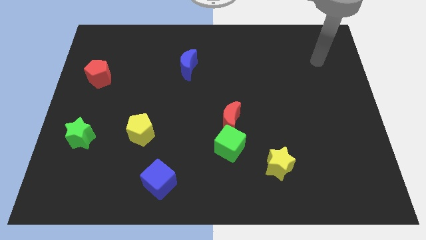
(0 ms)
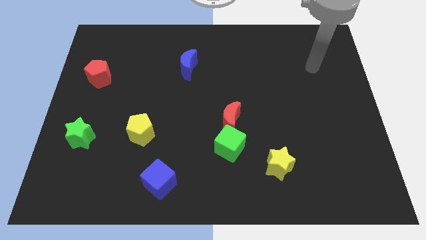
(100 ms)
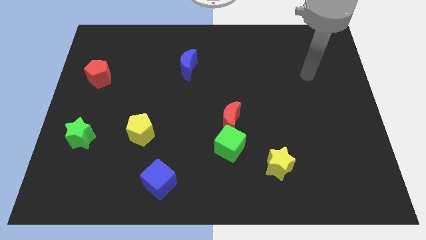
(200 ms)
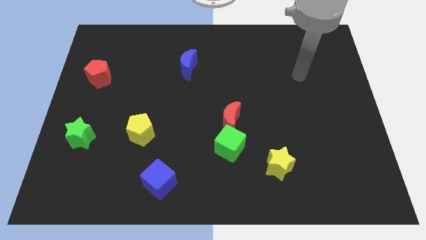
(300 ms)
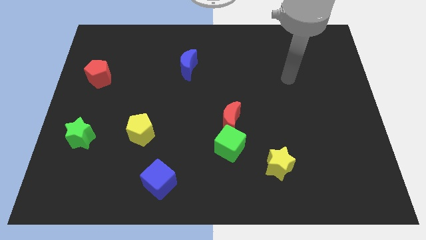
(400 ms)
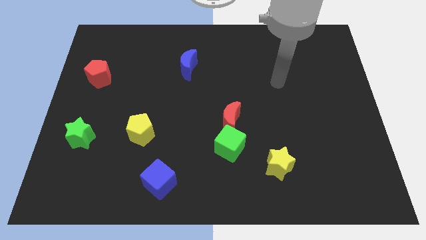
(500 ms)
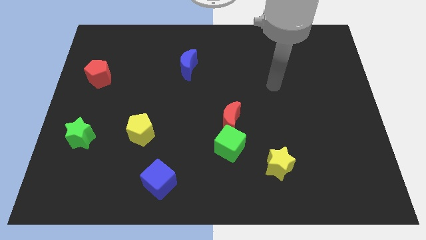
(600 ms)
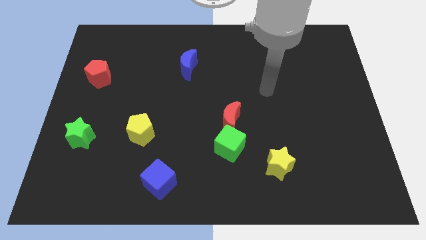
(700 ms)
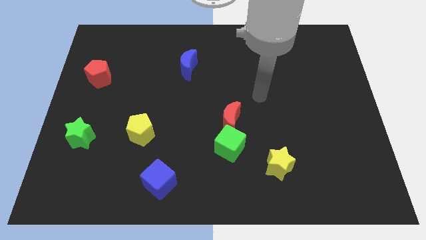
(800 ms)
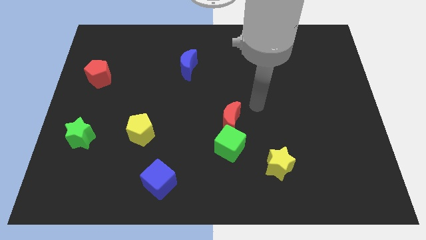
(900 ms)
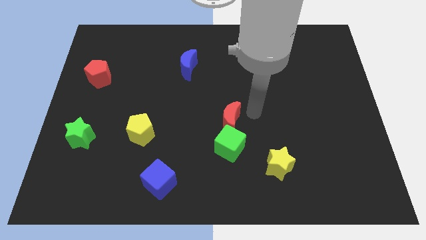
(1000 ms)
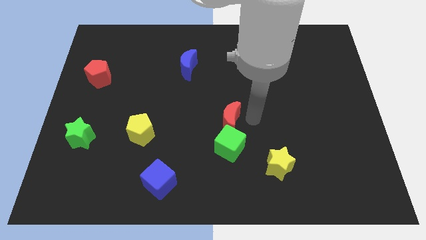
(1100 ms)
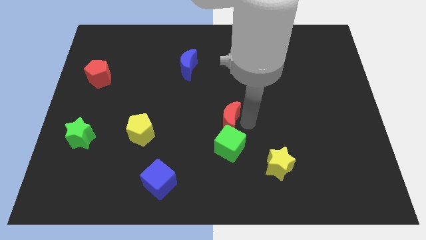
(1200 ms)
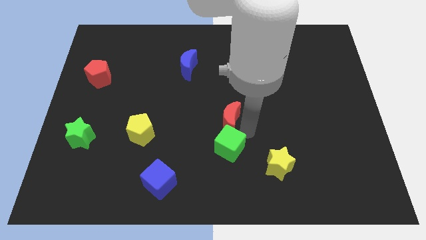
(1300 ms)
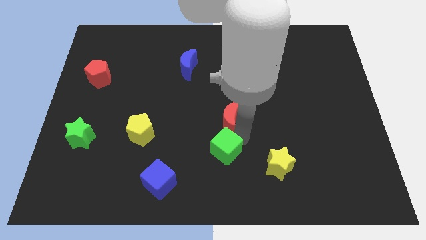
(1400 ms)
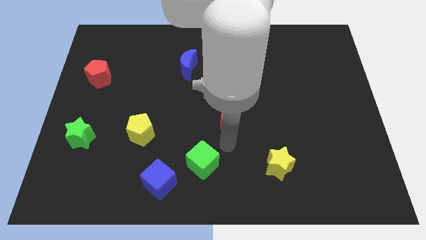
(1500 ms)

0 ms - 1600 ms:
separate the red moon from the green cube

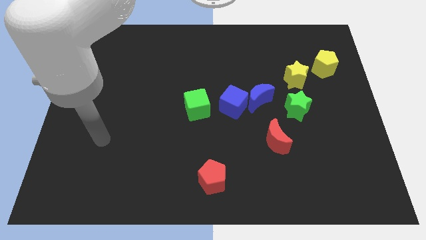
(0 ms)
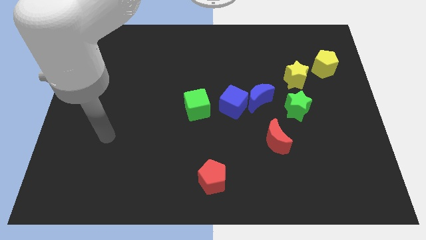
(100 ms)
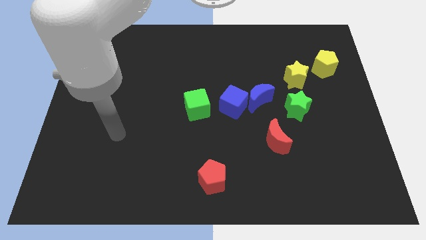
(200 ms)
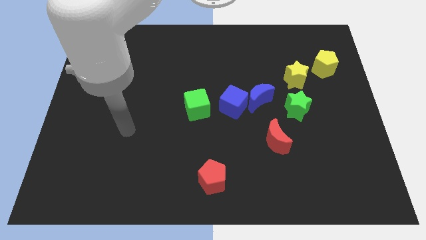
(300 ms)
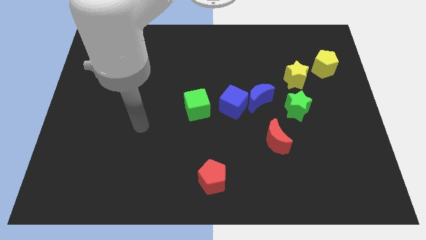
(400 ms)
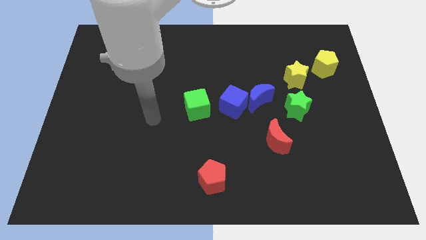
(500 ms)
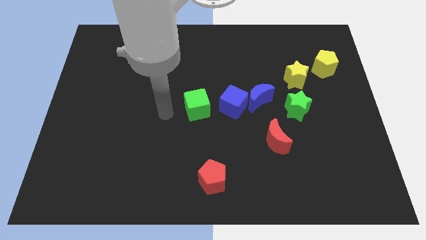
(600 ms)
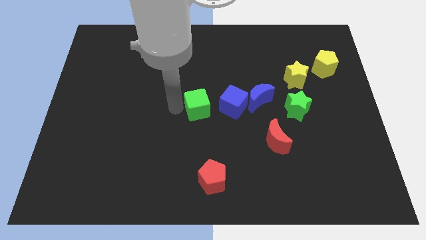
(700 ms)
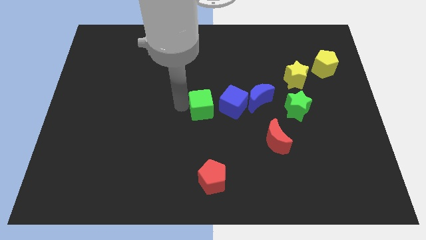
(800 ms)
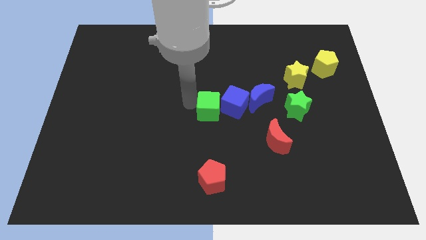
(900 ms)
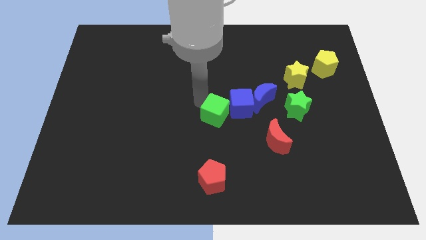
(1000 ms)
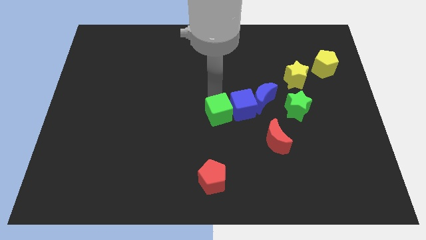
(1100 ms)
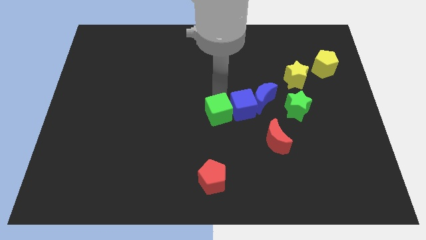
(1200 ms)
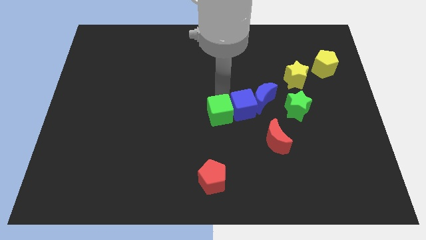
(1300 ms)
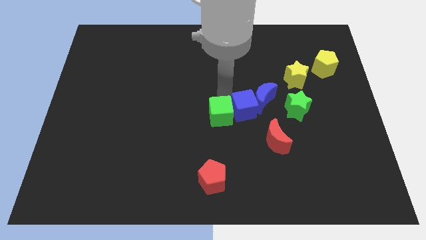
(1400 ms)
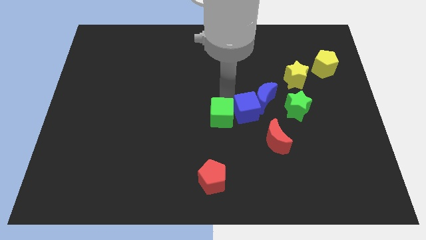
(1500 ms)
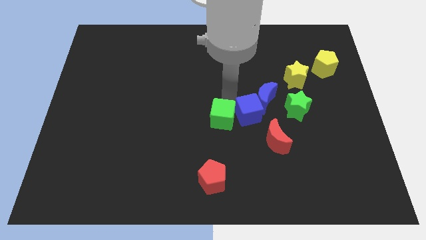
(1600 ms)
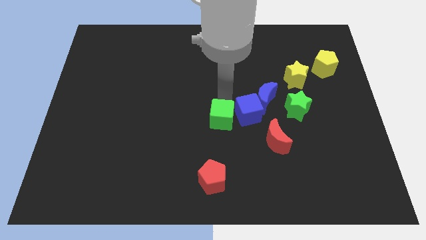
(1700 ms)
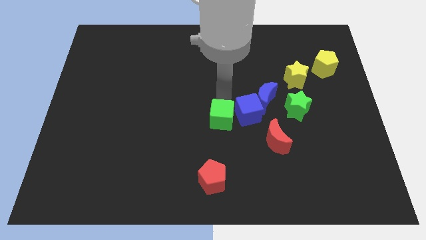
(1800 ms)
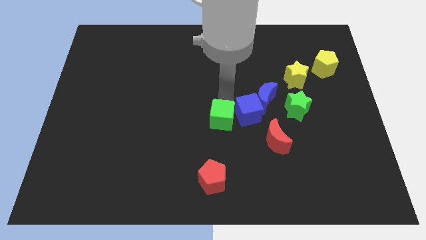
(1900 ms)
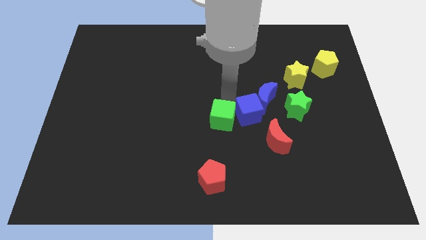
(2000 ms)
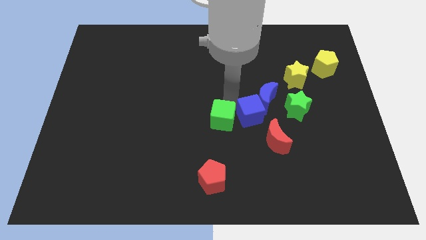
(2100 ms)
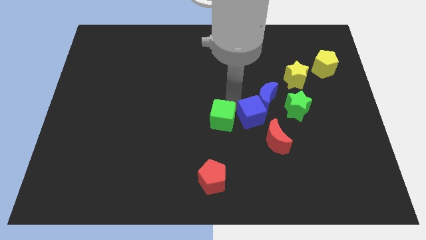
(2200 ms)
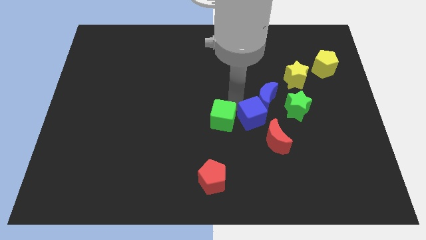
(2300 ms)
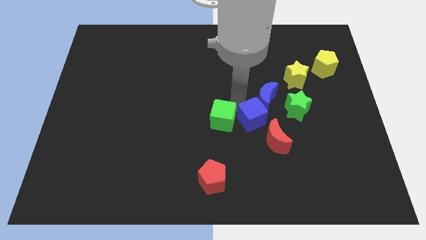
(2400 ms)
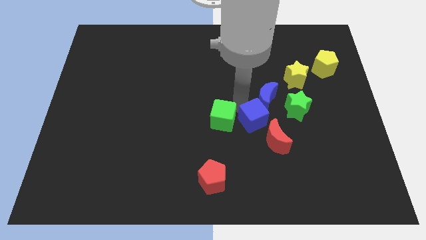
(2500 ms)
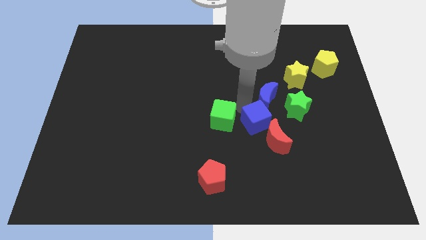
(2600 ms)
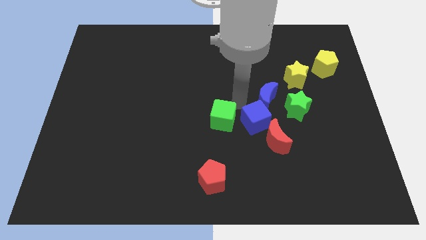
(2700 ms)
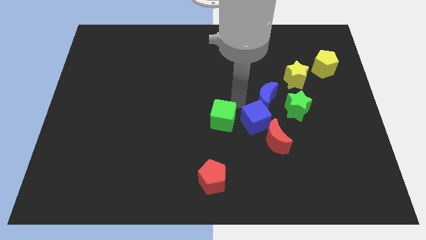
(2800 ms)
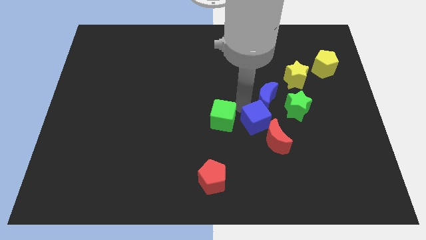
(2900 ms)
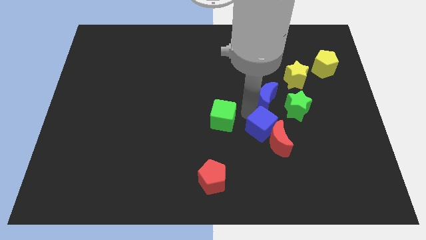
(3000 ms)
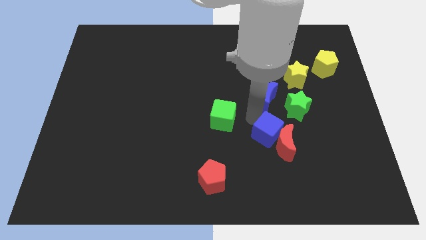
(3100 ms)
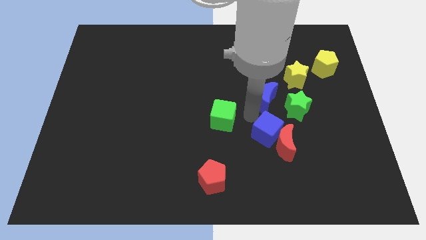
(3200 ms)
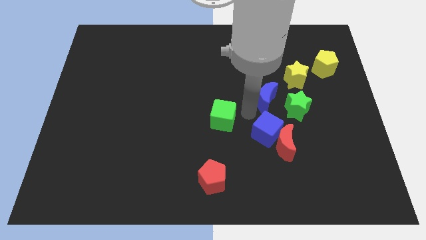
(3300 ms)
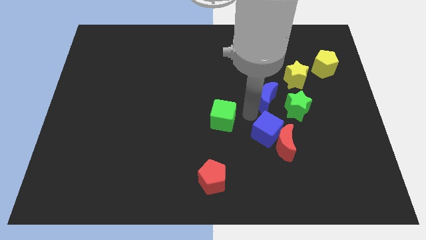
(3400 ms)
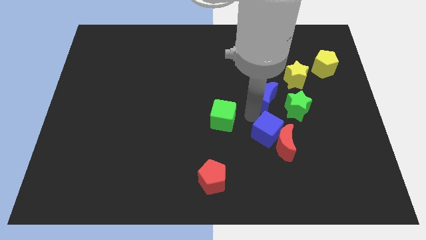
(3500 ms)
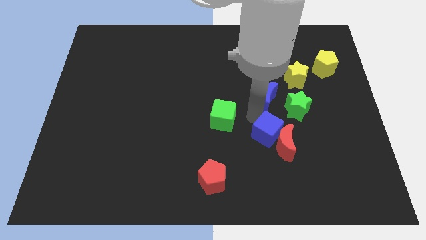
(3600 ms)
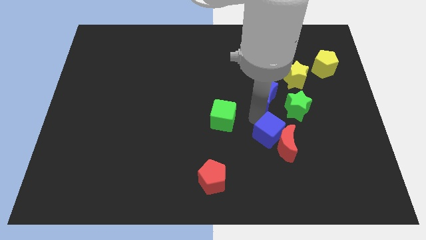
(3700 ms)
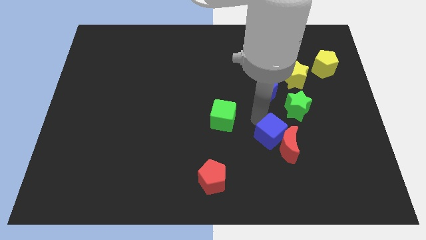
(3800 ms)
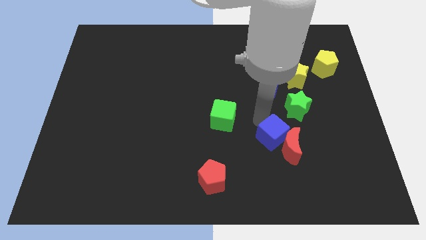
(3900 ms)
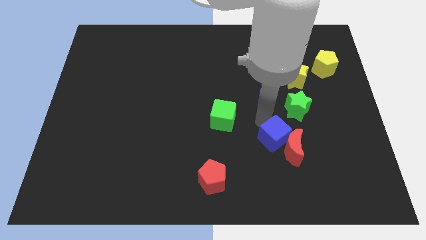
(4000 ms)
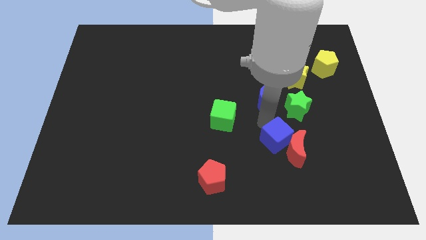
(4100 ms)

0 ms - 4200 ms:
separate the blue cube from the blue moon and green cube

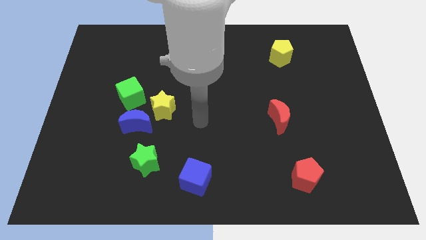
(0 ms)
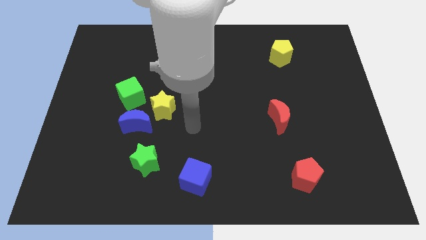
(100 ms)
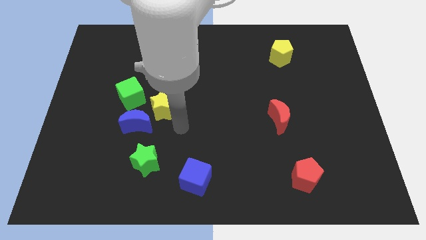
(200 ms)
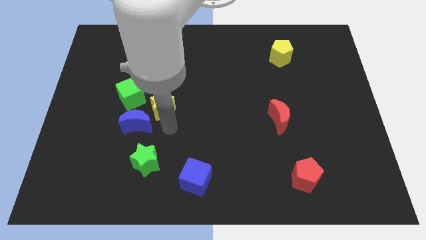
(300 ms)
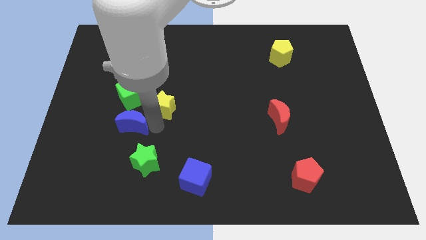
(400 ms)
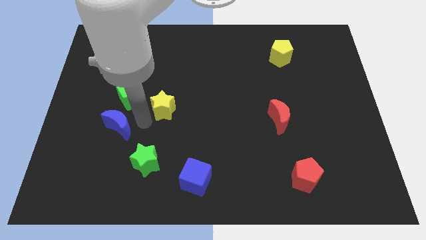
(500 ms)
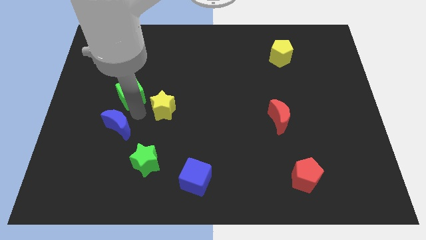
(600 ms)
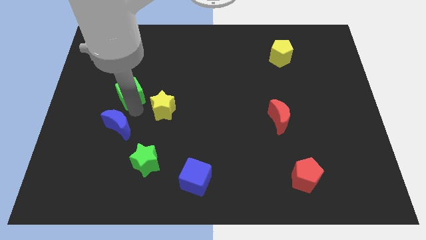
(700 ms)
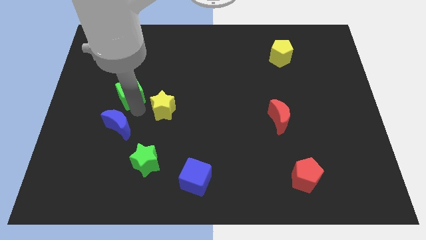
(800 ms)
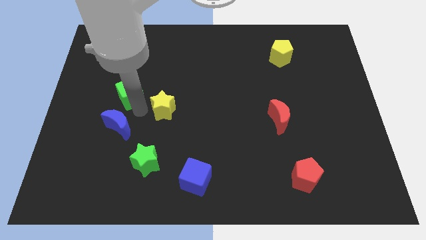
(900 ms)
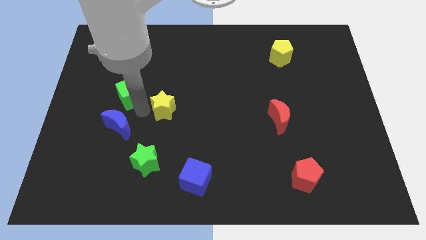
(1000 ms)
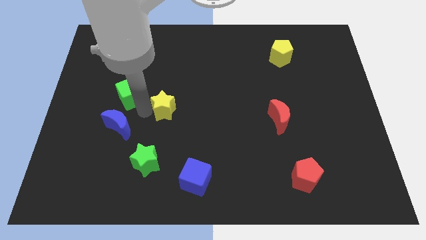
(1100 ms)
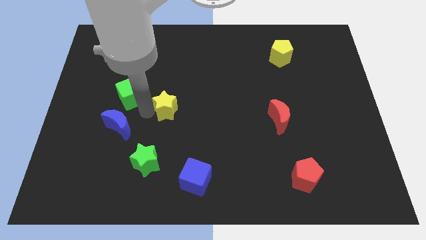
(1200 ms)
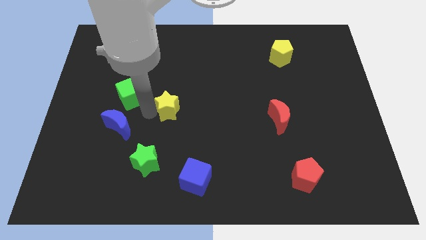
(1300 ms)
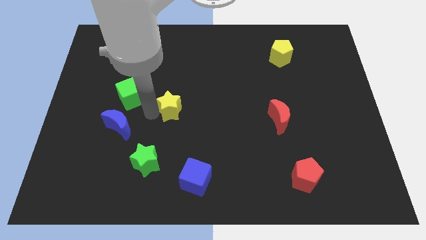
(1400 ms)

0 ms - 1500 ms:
separate the yellow star from the blue moon and green cube

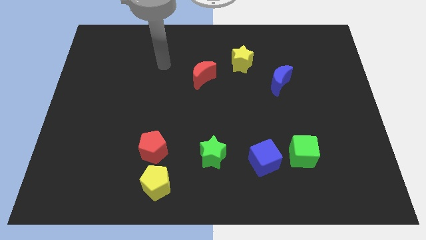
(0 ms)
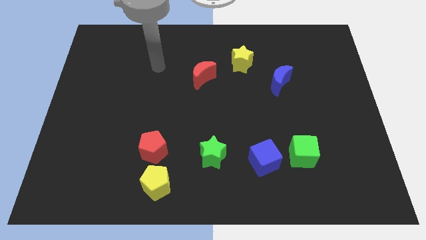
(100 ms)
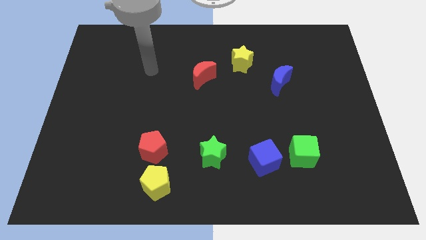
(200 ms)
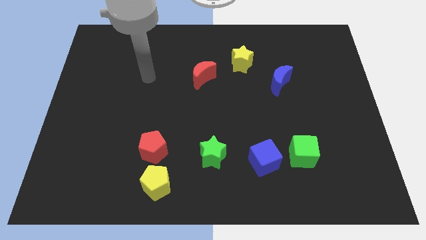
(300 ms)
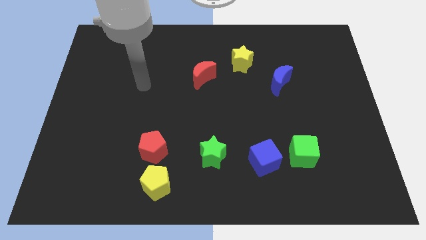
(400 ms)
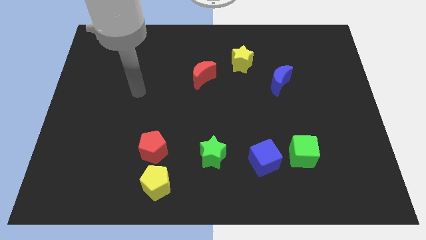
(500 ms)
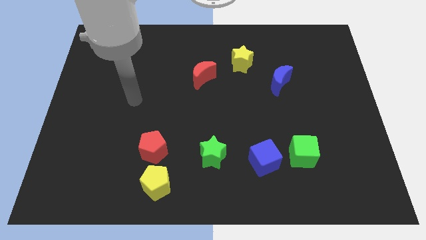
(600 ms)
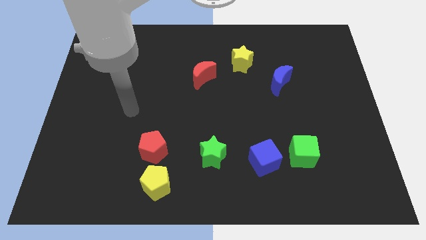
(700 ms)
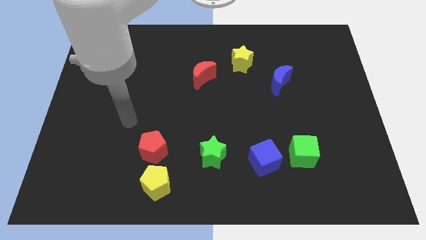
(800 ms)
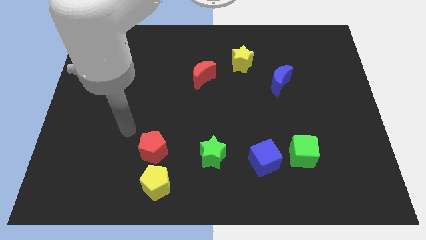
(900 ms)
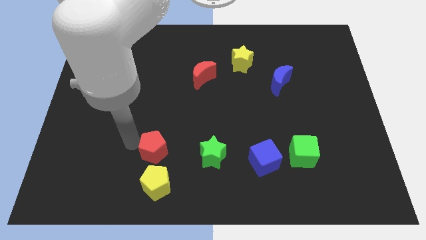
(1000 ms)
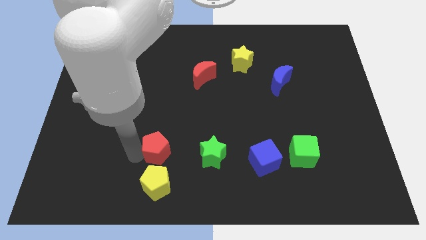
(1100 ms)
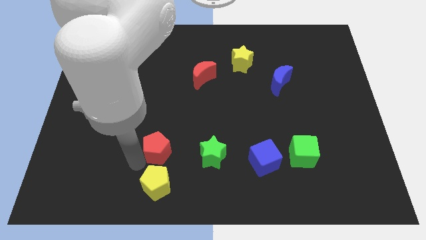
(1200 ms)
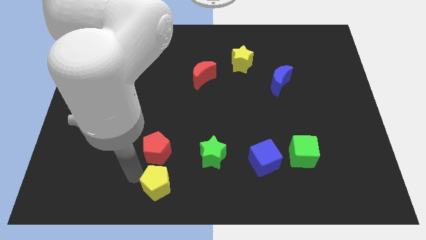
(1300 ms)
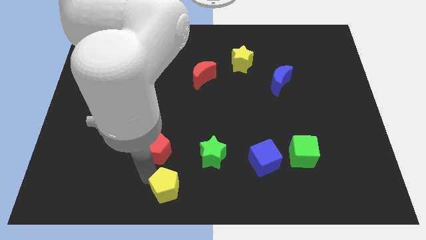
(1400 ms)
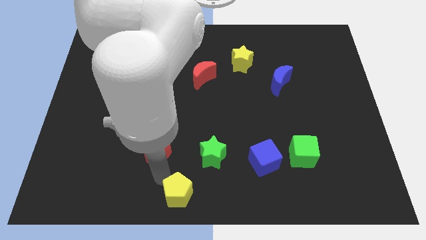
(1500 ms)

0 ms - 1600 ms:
move the red pentagon away from the yellow pentagon

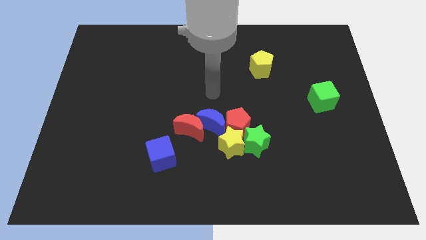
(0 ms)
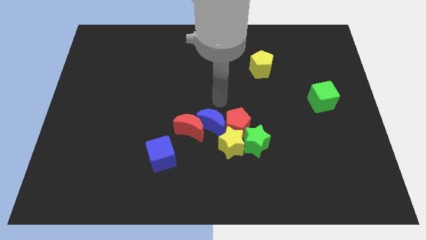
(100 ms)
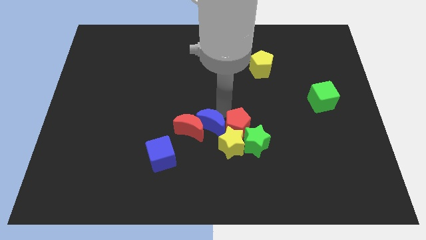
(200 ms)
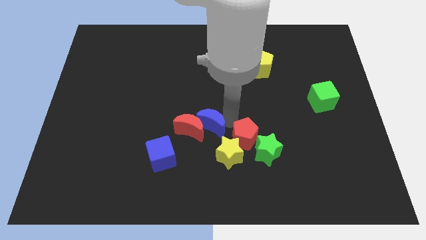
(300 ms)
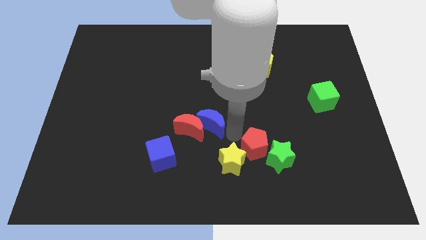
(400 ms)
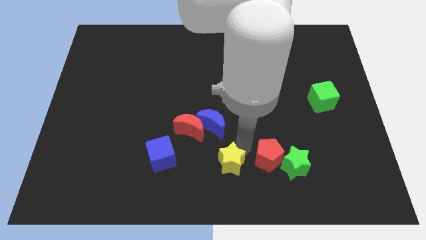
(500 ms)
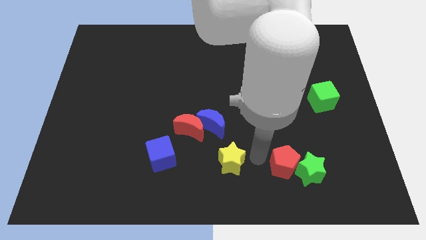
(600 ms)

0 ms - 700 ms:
move the green star away from the yellow star and red pentagon
